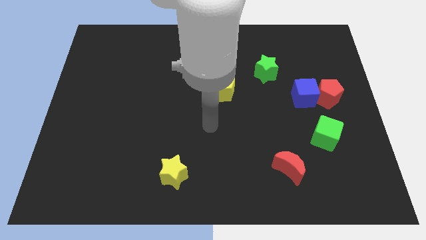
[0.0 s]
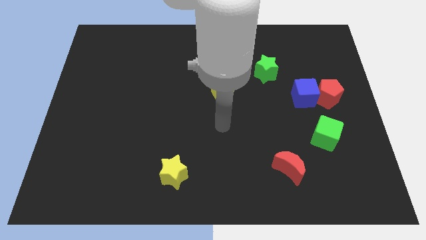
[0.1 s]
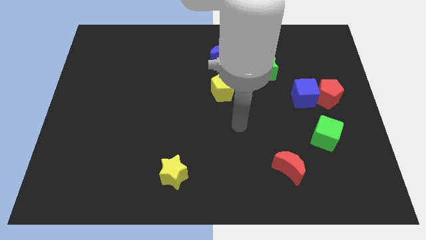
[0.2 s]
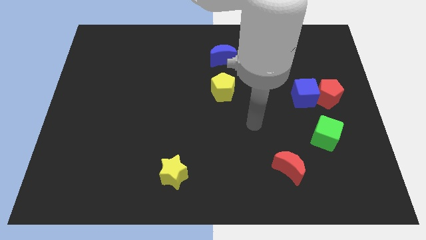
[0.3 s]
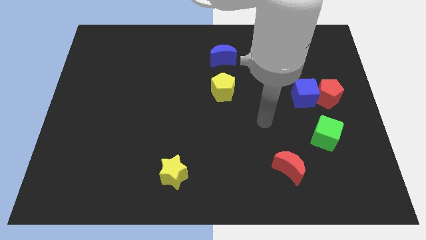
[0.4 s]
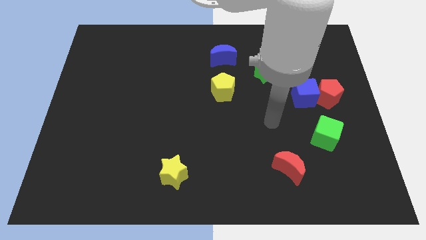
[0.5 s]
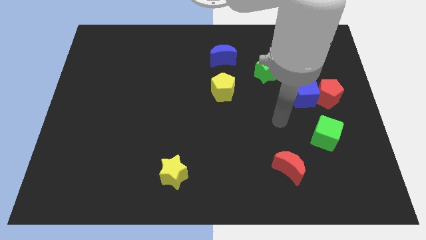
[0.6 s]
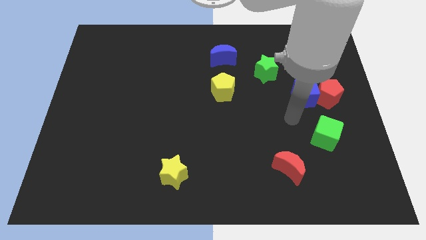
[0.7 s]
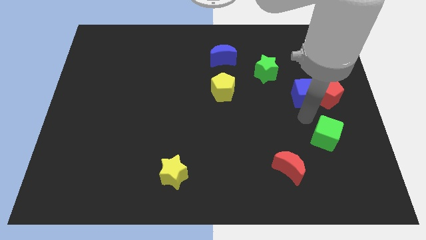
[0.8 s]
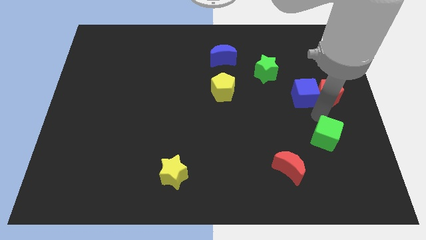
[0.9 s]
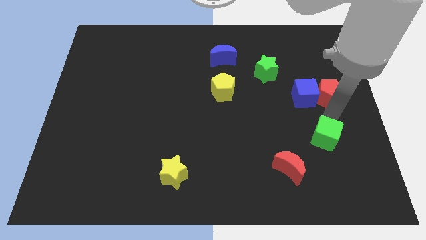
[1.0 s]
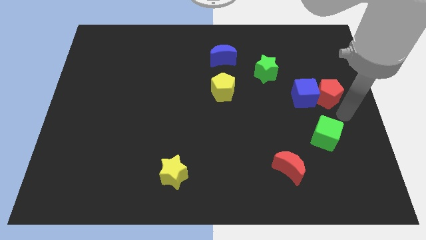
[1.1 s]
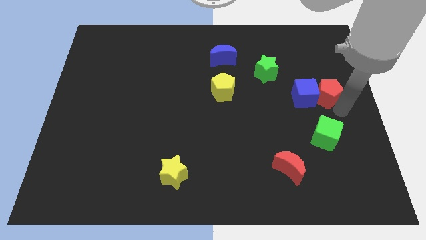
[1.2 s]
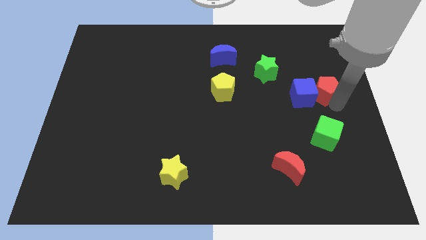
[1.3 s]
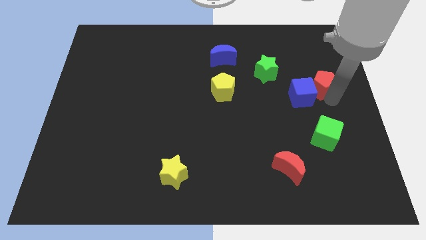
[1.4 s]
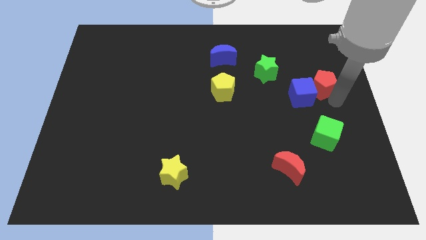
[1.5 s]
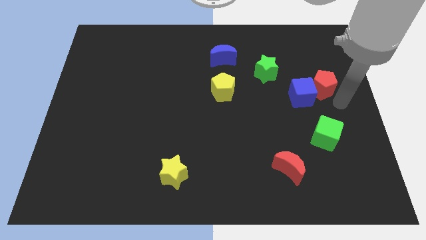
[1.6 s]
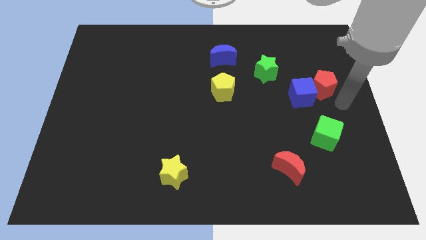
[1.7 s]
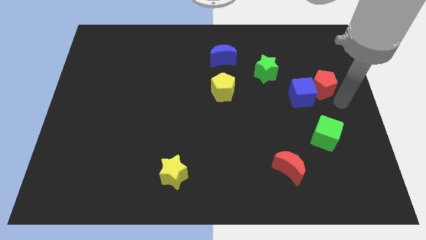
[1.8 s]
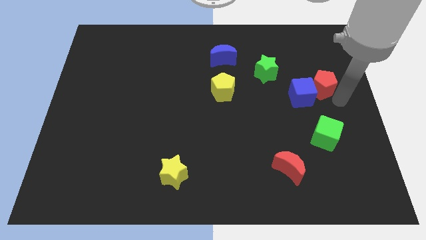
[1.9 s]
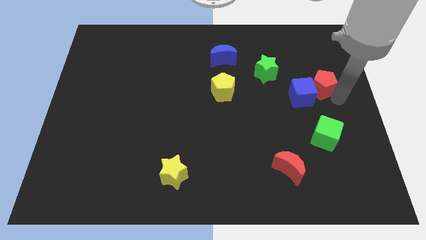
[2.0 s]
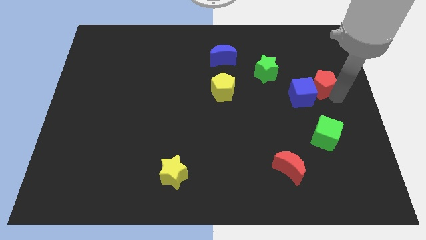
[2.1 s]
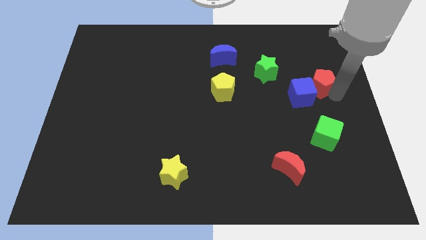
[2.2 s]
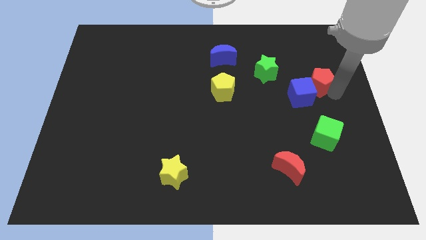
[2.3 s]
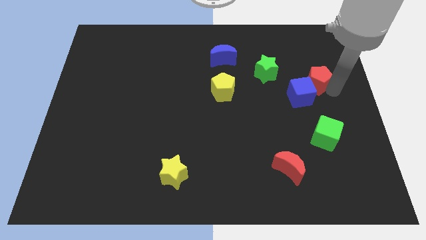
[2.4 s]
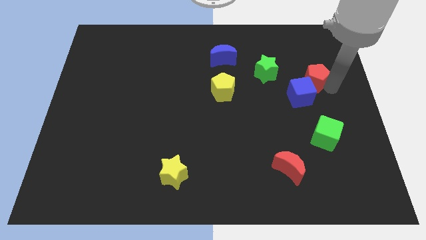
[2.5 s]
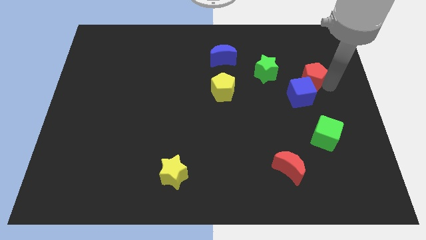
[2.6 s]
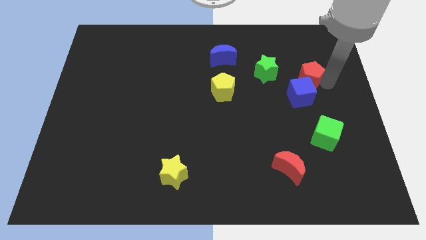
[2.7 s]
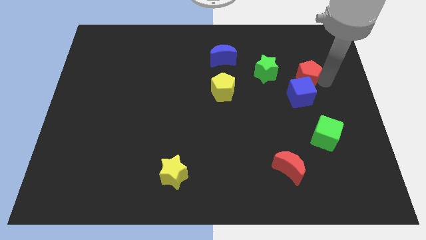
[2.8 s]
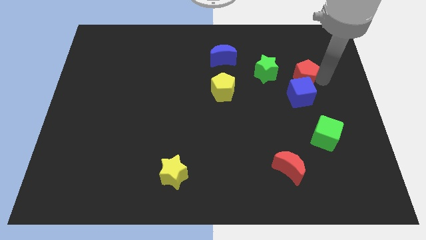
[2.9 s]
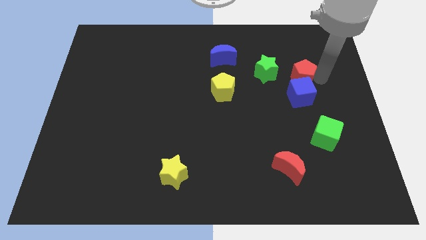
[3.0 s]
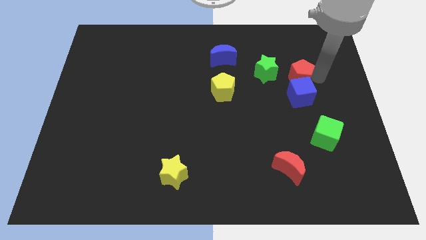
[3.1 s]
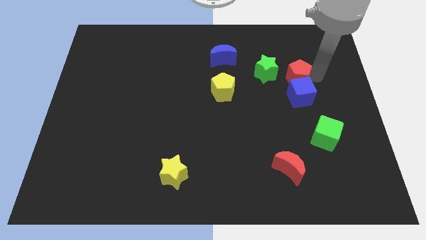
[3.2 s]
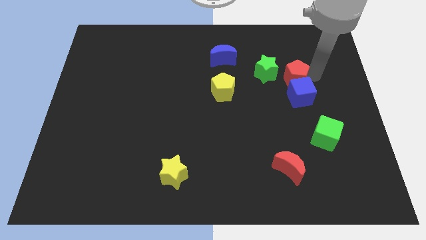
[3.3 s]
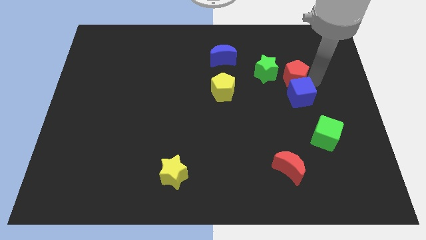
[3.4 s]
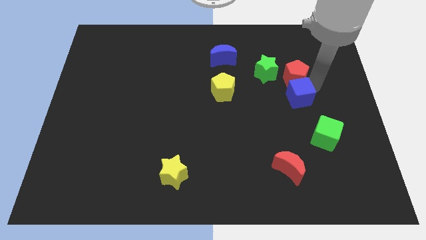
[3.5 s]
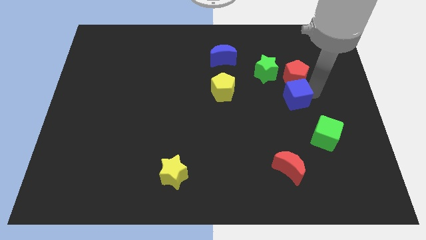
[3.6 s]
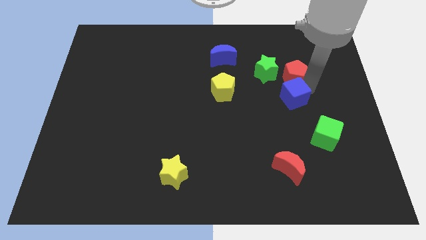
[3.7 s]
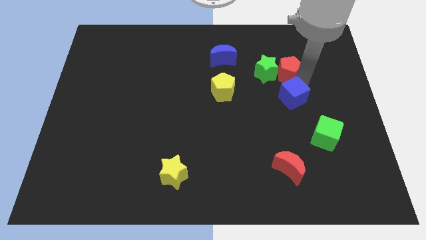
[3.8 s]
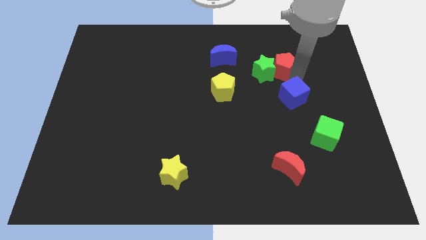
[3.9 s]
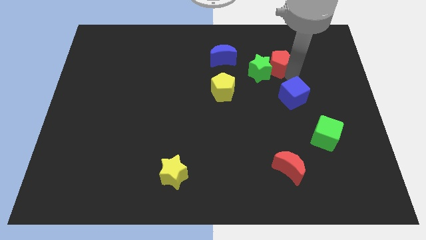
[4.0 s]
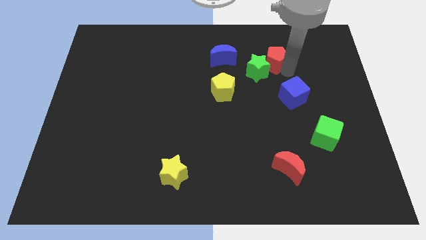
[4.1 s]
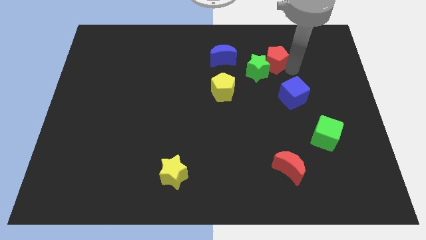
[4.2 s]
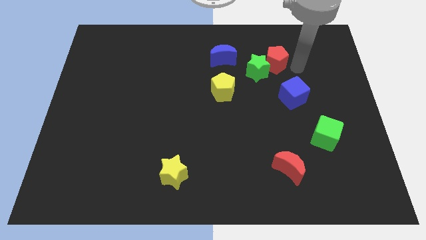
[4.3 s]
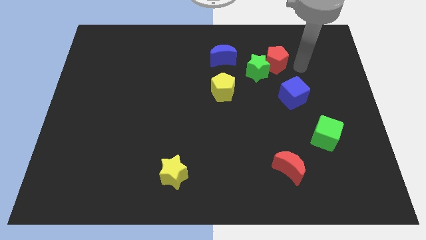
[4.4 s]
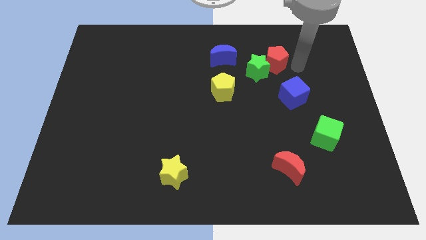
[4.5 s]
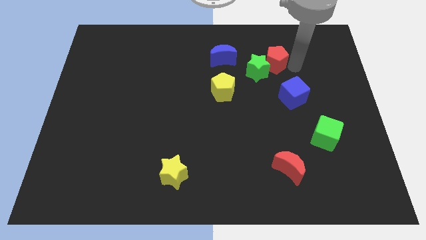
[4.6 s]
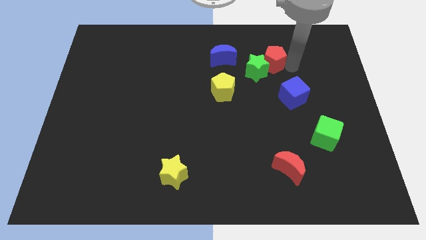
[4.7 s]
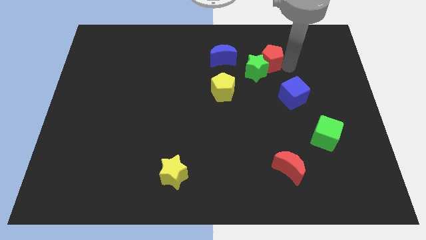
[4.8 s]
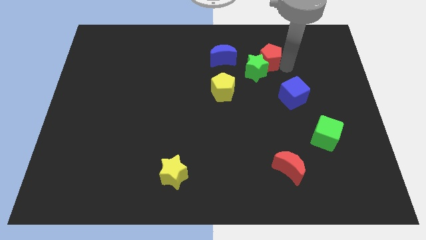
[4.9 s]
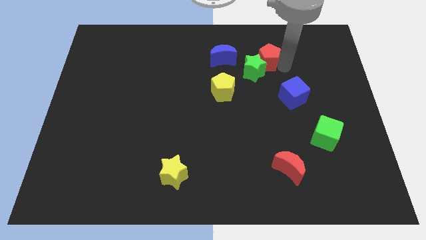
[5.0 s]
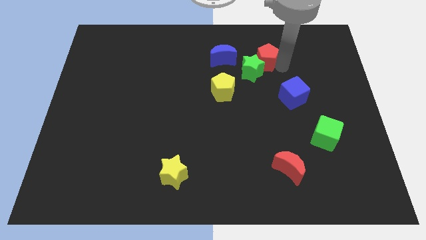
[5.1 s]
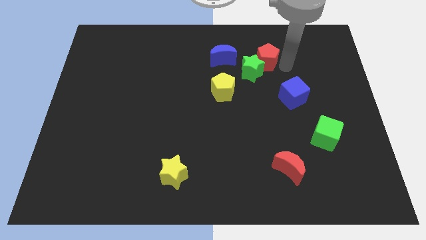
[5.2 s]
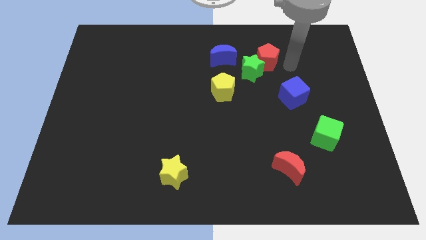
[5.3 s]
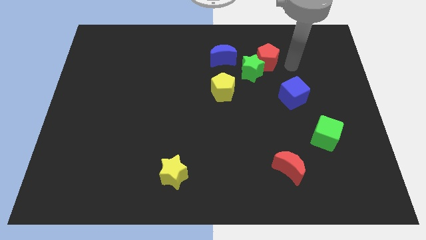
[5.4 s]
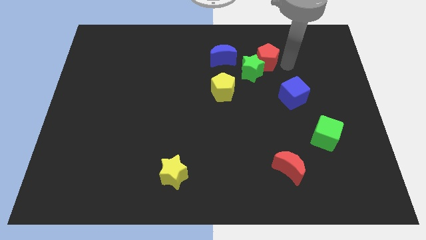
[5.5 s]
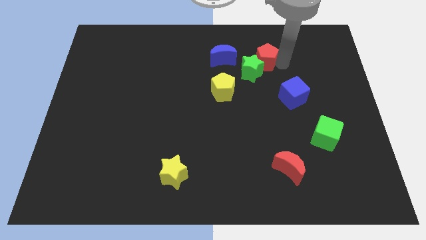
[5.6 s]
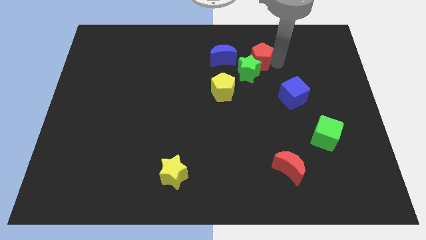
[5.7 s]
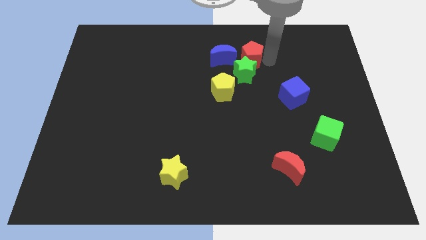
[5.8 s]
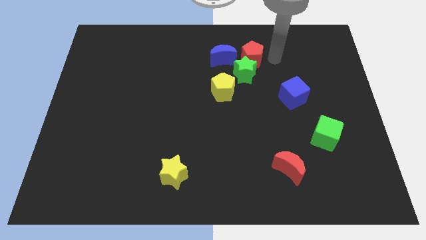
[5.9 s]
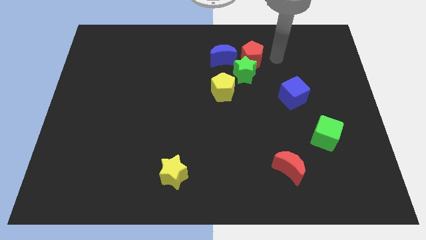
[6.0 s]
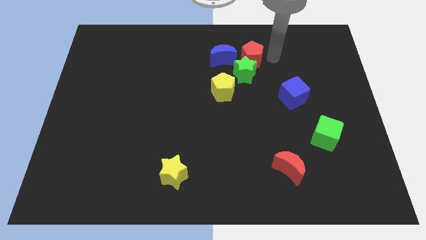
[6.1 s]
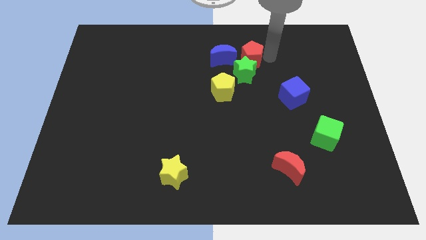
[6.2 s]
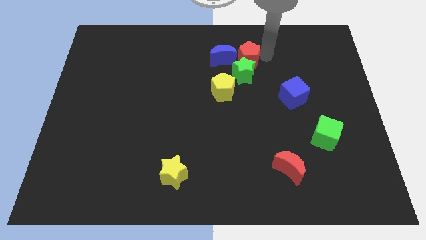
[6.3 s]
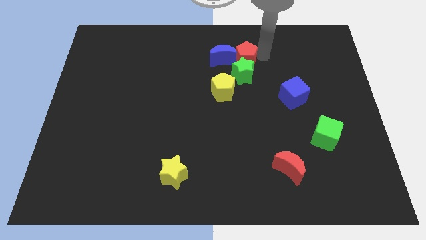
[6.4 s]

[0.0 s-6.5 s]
push the red pentagon close to the blue moon

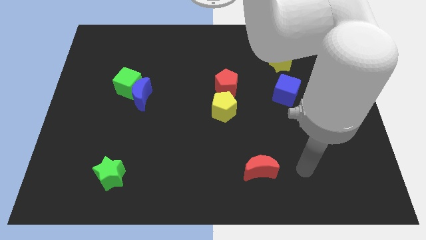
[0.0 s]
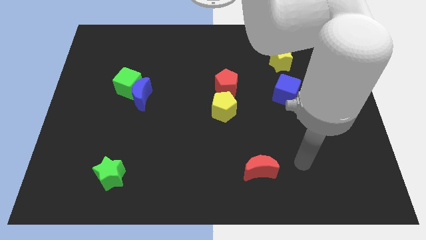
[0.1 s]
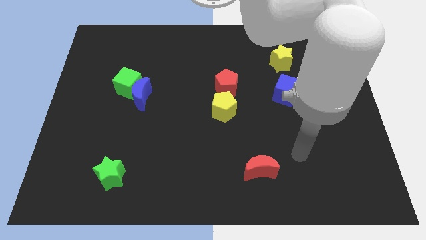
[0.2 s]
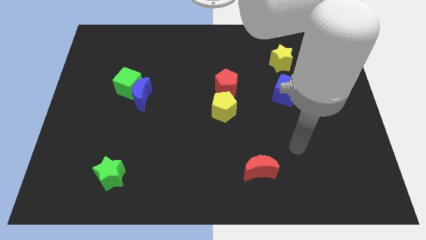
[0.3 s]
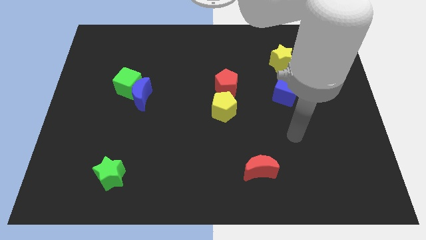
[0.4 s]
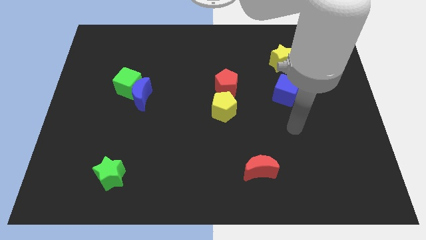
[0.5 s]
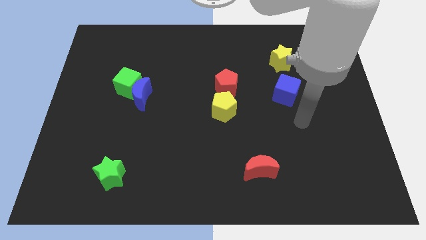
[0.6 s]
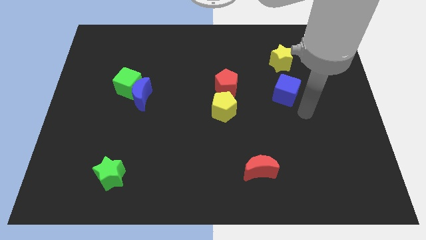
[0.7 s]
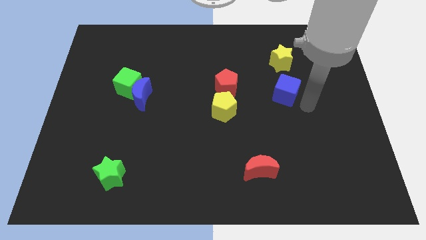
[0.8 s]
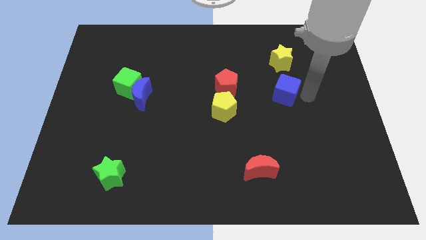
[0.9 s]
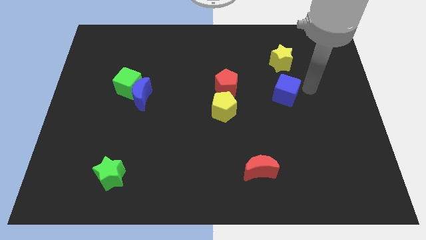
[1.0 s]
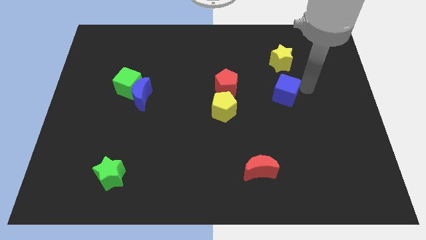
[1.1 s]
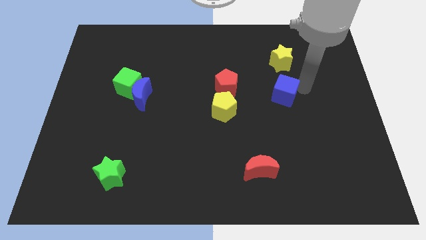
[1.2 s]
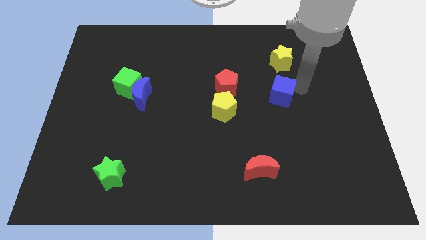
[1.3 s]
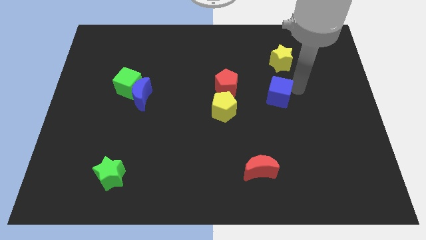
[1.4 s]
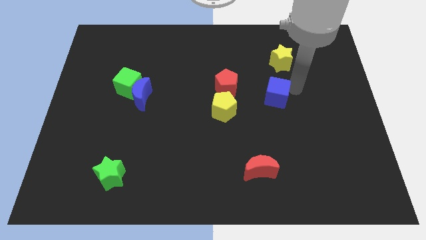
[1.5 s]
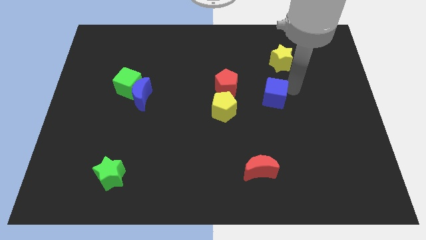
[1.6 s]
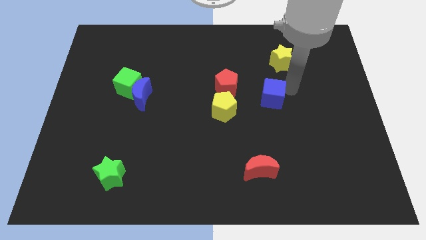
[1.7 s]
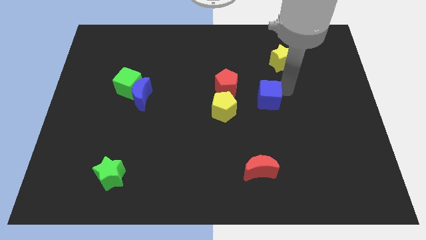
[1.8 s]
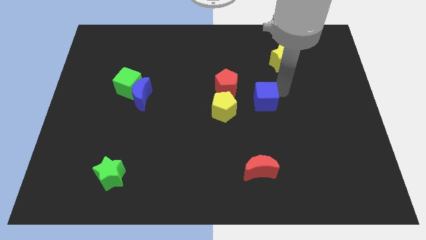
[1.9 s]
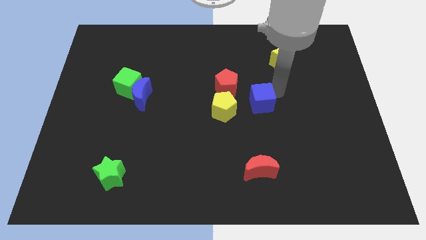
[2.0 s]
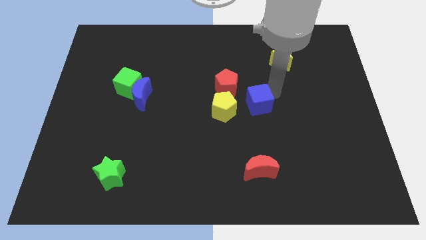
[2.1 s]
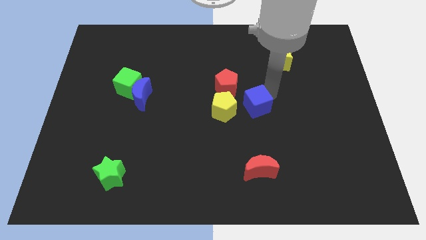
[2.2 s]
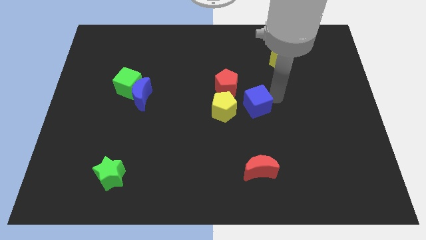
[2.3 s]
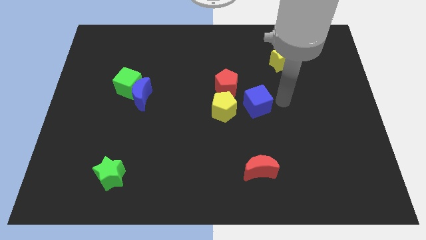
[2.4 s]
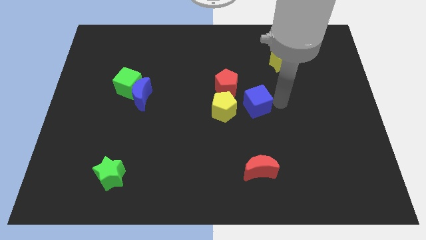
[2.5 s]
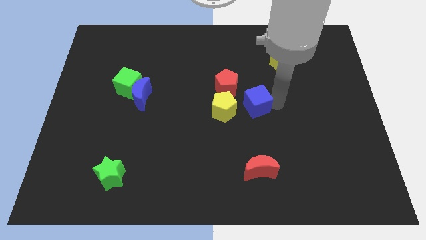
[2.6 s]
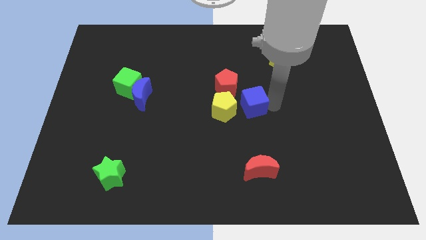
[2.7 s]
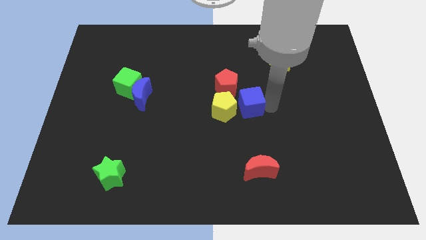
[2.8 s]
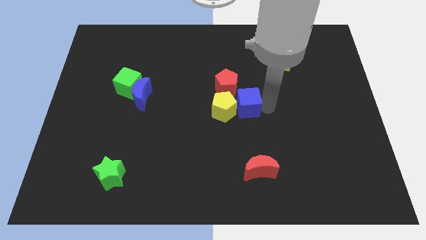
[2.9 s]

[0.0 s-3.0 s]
move the blue cube to the yellow pentagon
